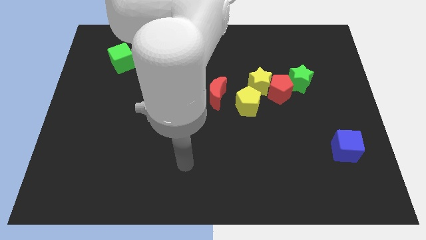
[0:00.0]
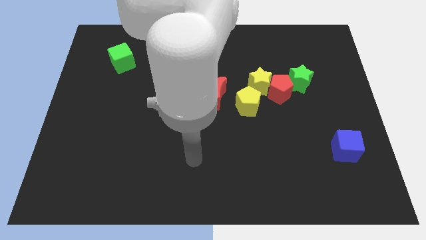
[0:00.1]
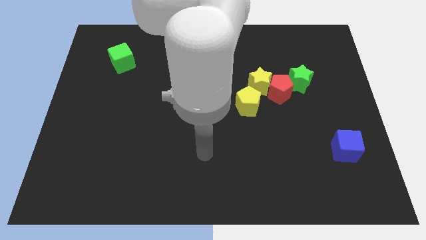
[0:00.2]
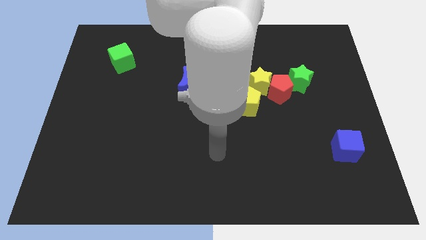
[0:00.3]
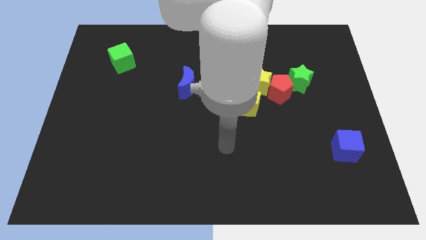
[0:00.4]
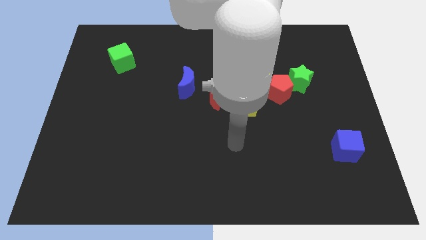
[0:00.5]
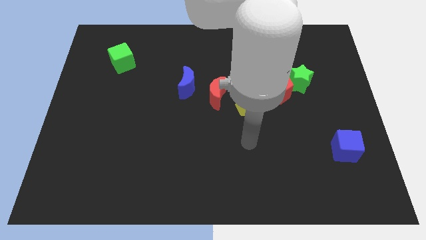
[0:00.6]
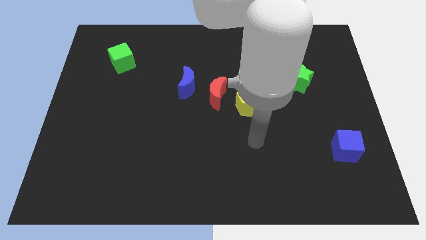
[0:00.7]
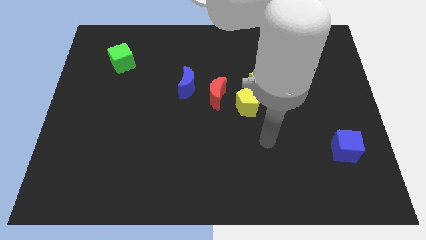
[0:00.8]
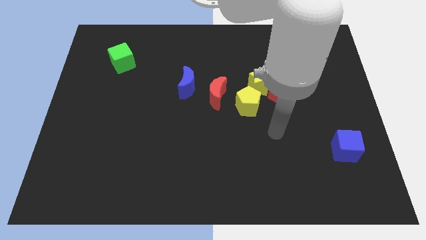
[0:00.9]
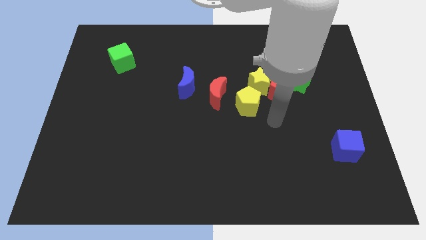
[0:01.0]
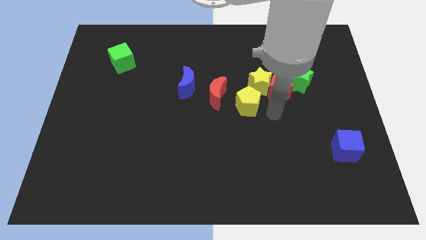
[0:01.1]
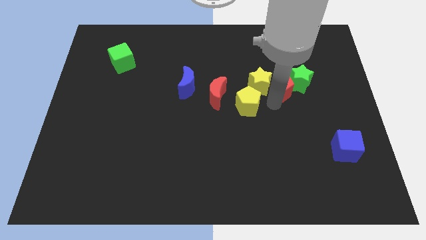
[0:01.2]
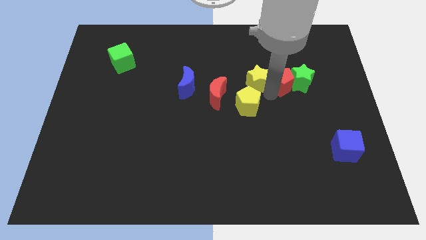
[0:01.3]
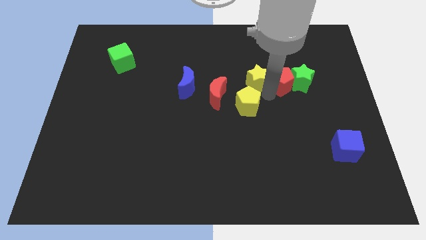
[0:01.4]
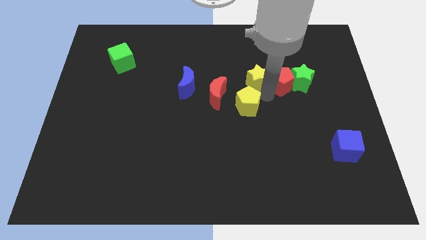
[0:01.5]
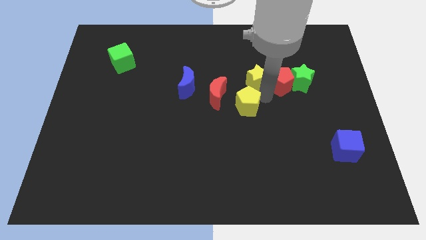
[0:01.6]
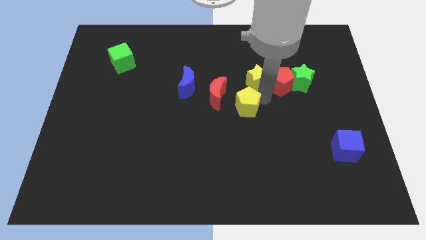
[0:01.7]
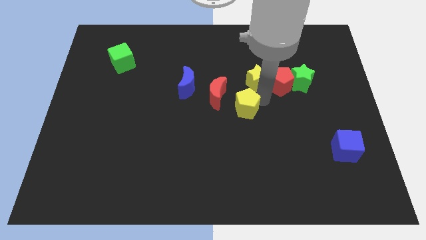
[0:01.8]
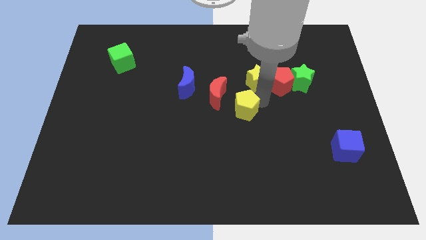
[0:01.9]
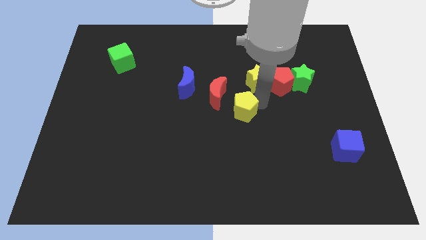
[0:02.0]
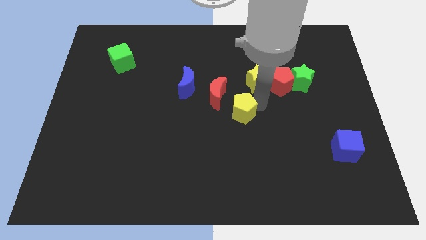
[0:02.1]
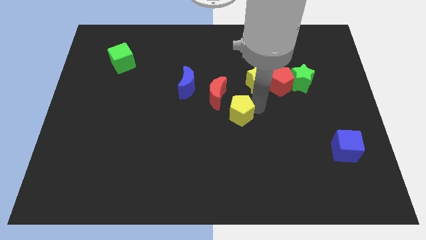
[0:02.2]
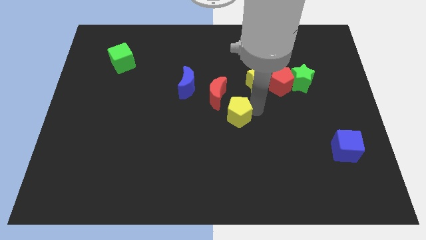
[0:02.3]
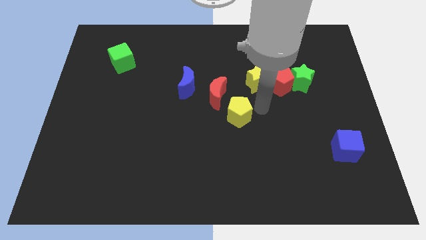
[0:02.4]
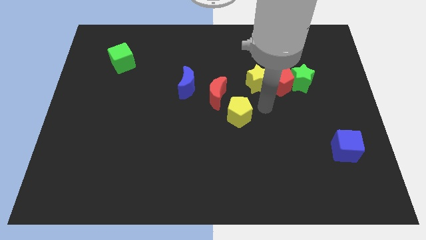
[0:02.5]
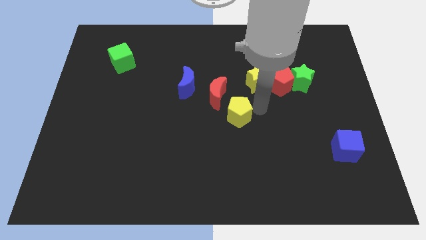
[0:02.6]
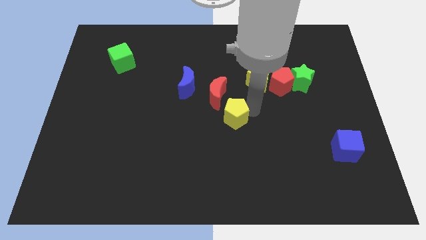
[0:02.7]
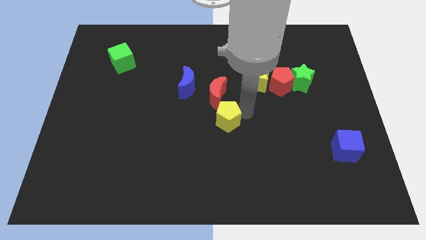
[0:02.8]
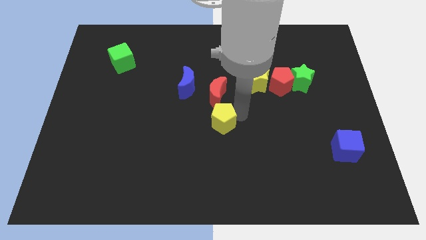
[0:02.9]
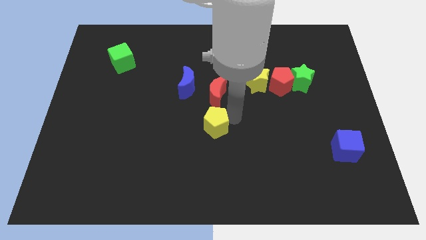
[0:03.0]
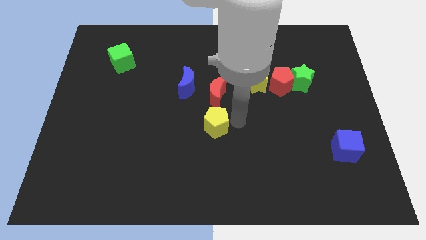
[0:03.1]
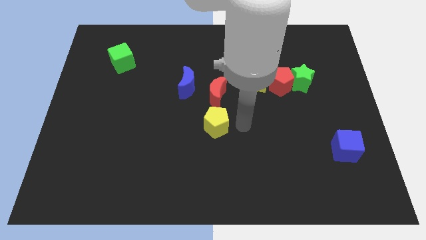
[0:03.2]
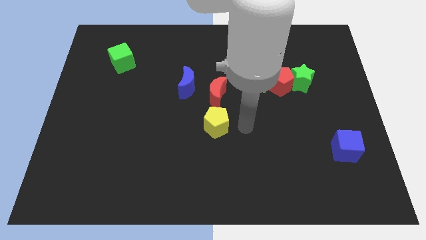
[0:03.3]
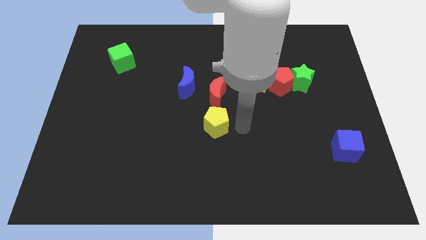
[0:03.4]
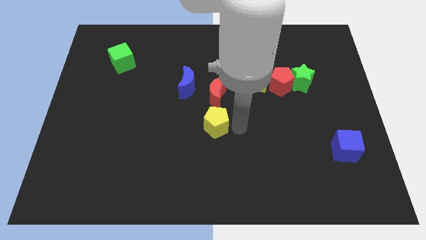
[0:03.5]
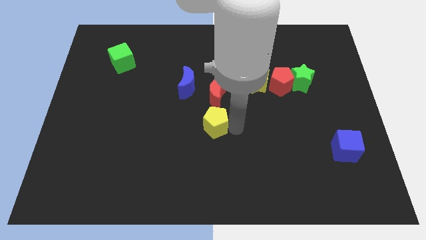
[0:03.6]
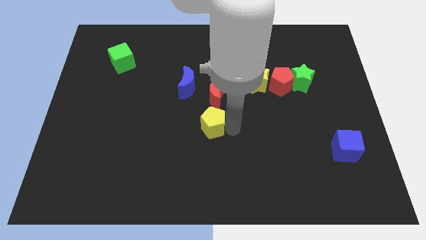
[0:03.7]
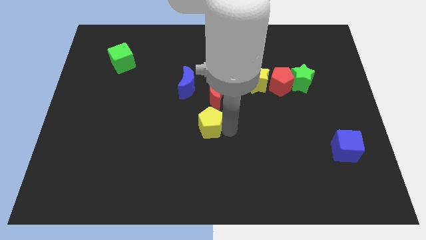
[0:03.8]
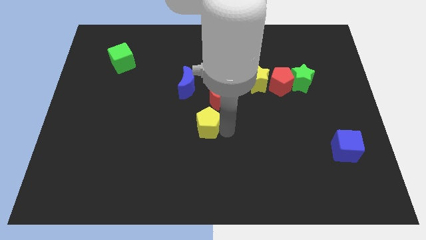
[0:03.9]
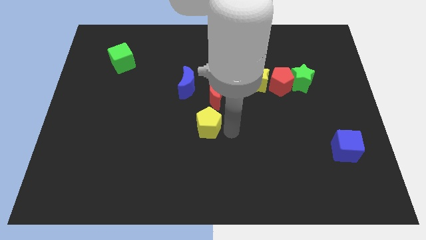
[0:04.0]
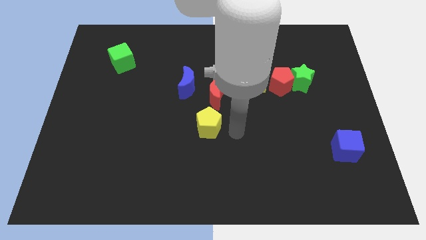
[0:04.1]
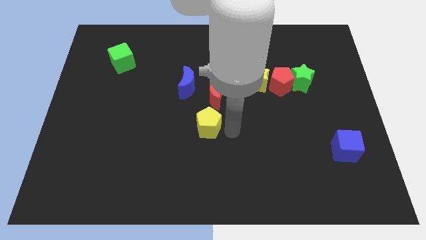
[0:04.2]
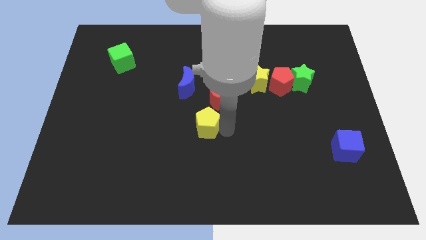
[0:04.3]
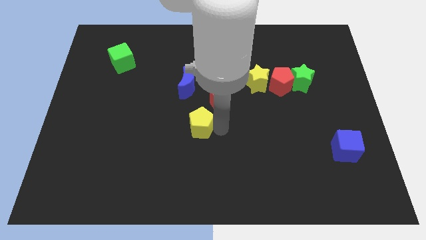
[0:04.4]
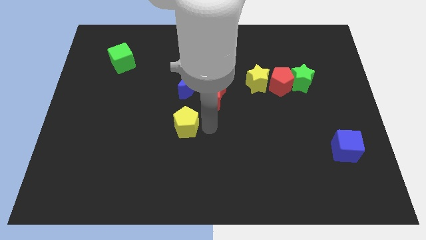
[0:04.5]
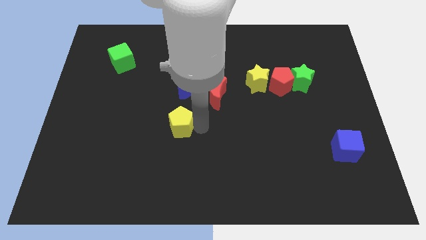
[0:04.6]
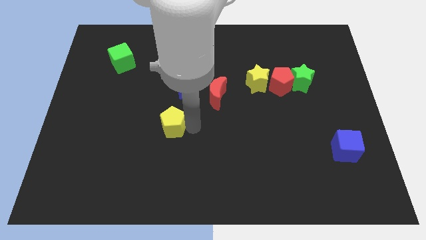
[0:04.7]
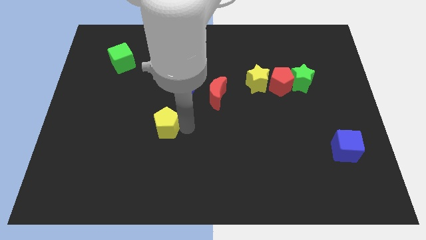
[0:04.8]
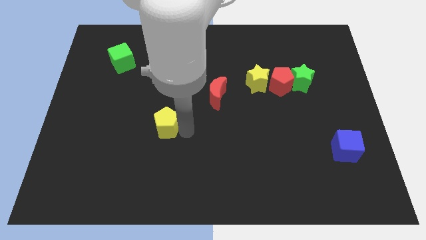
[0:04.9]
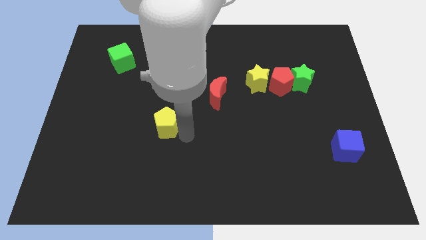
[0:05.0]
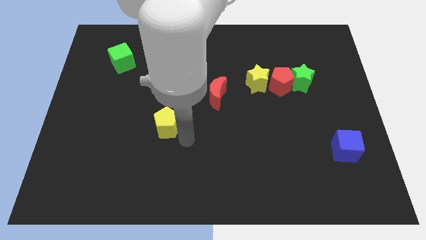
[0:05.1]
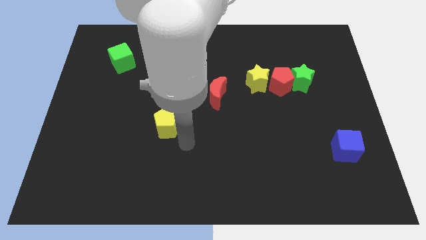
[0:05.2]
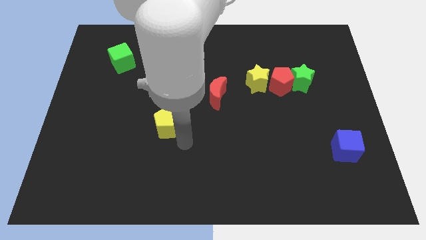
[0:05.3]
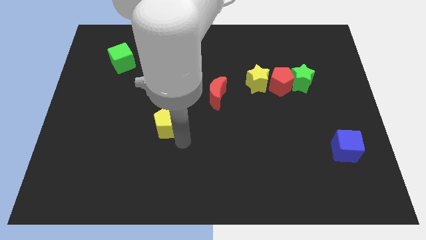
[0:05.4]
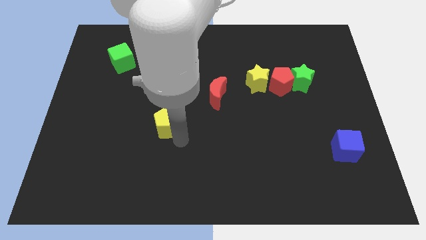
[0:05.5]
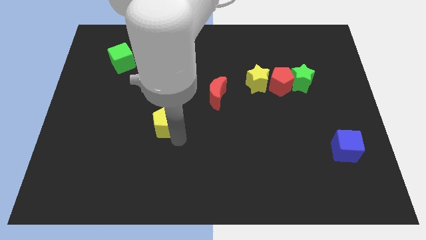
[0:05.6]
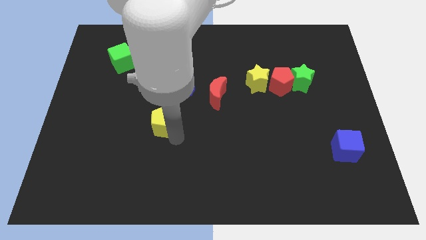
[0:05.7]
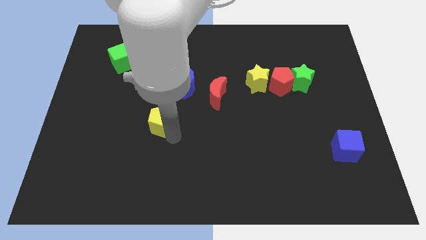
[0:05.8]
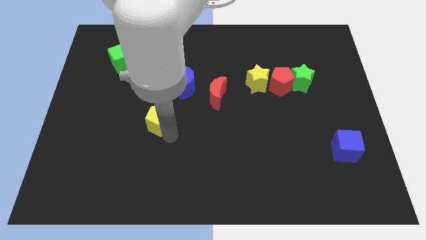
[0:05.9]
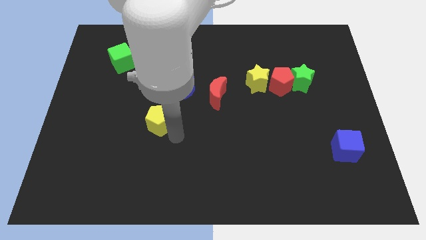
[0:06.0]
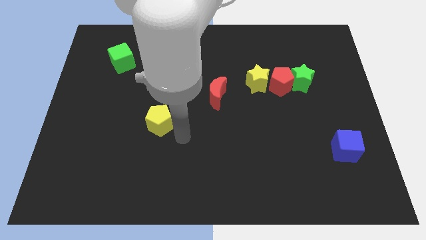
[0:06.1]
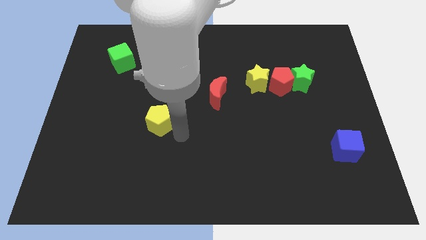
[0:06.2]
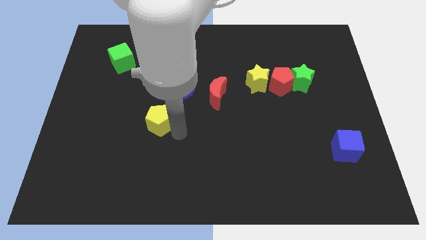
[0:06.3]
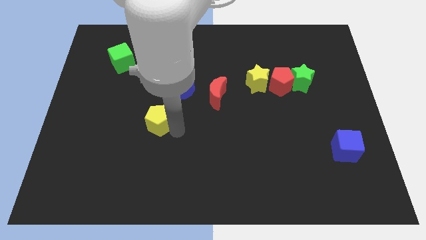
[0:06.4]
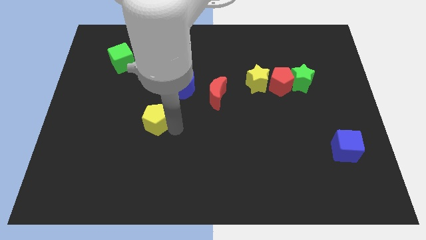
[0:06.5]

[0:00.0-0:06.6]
move the yellow pentagon left

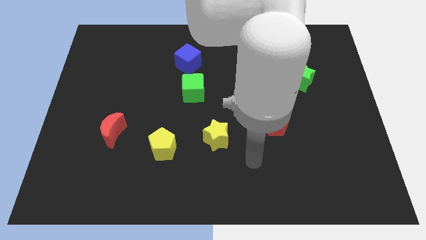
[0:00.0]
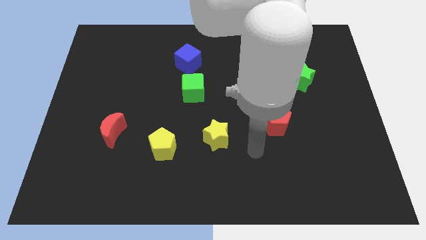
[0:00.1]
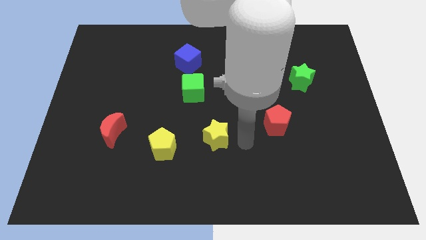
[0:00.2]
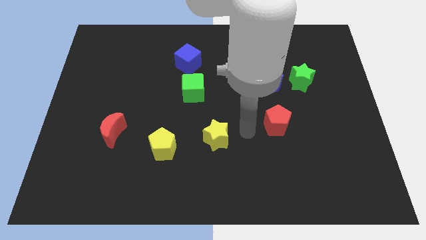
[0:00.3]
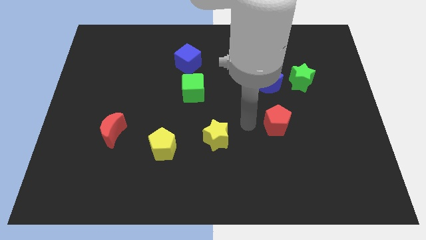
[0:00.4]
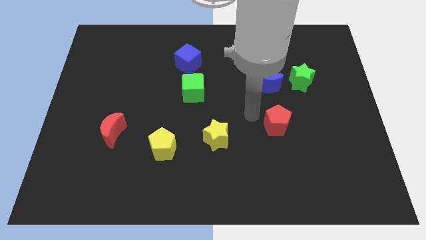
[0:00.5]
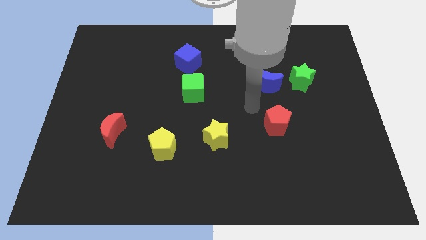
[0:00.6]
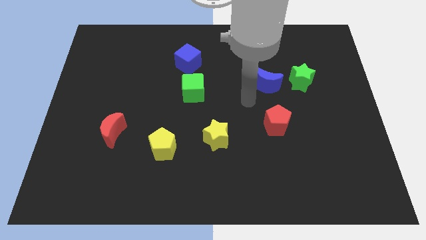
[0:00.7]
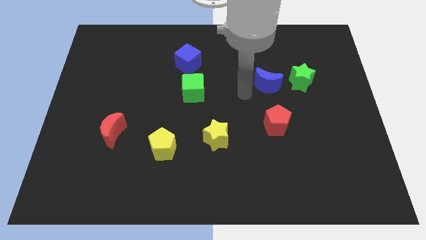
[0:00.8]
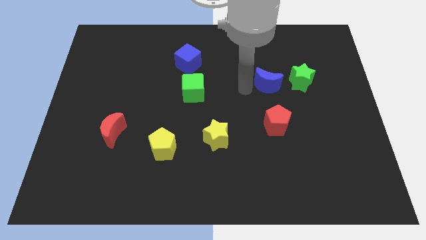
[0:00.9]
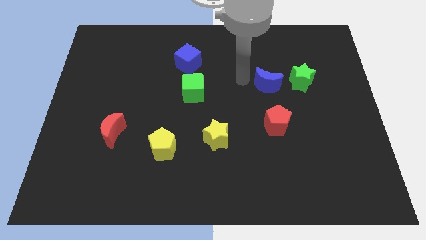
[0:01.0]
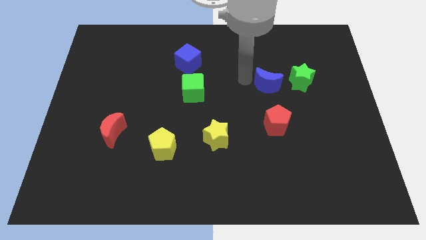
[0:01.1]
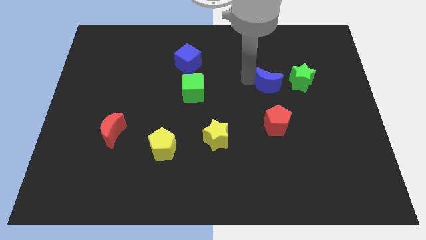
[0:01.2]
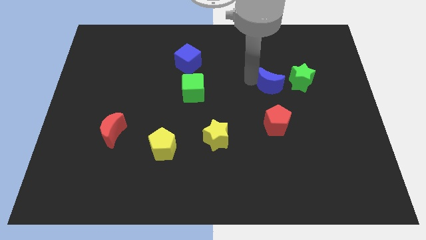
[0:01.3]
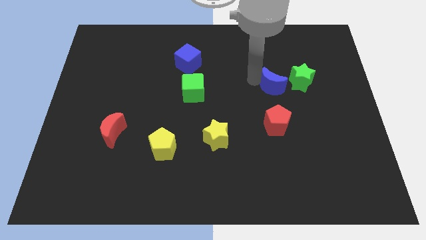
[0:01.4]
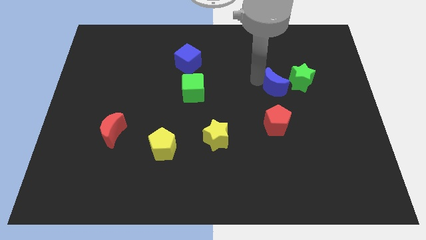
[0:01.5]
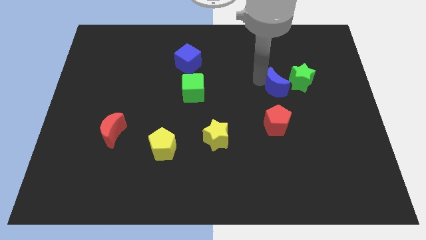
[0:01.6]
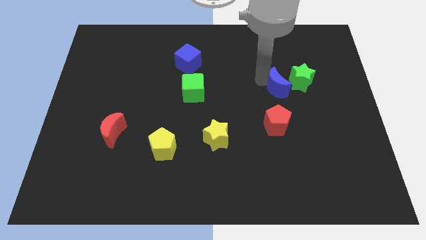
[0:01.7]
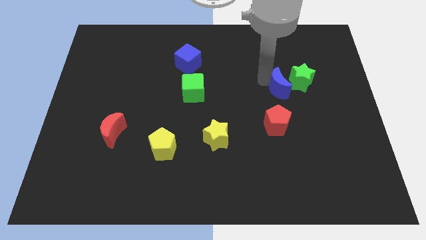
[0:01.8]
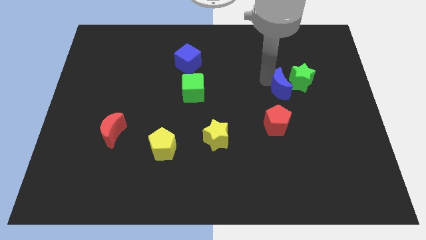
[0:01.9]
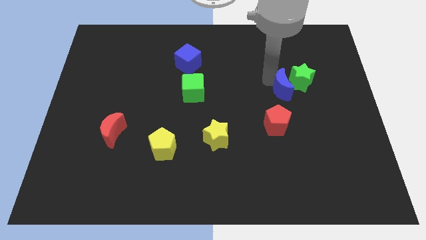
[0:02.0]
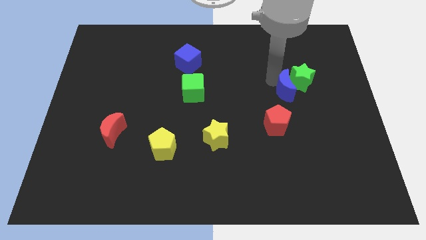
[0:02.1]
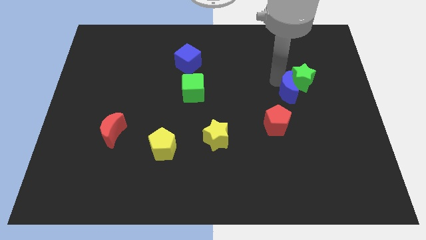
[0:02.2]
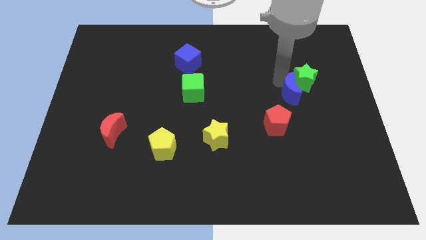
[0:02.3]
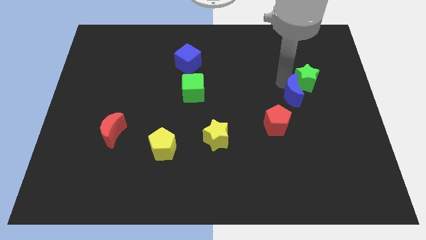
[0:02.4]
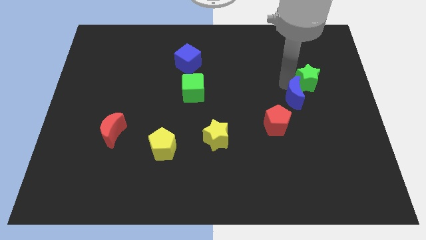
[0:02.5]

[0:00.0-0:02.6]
slightly push the blue moon down and right
